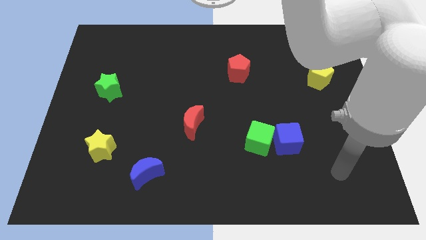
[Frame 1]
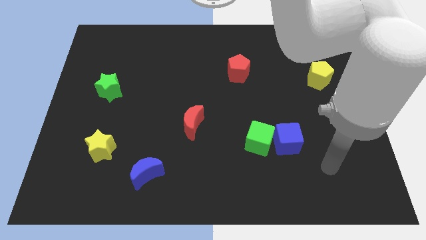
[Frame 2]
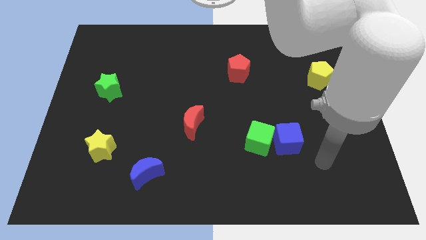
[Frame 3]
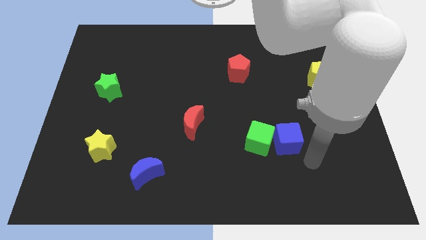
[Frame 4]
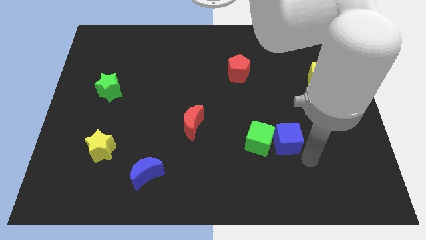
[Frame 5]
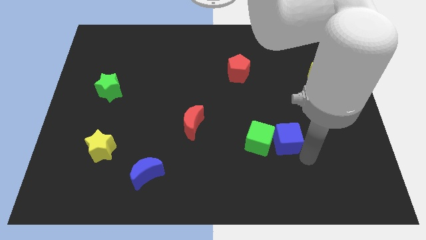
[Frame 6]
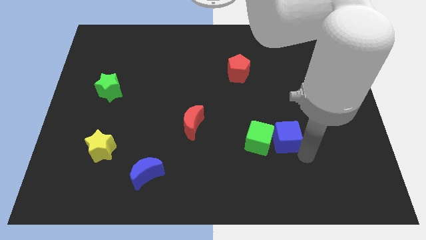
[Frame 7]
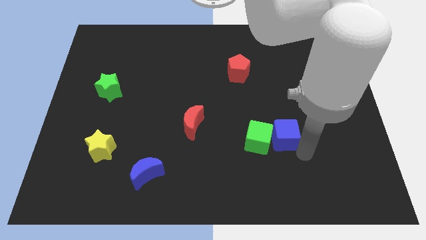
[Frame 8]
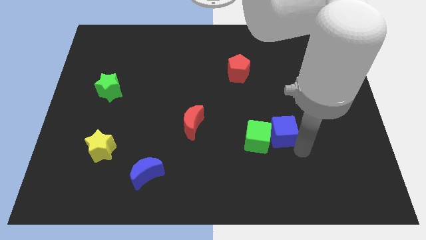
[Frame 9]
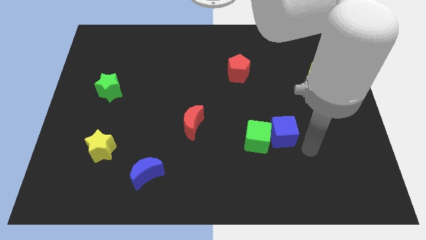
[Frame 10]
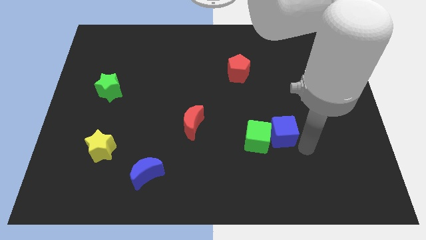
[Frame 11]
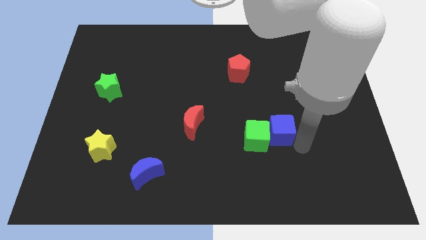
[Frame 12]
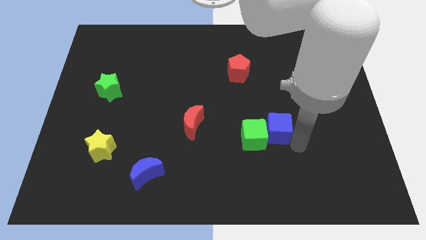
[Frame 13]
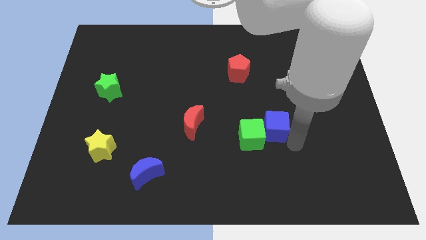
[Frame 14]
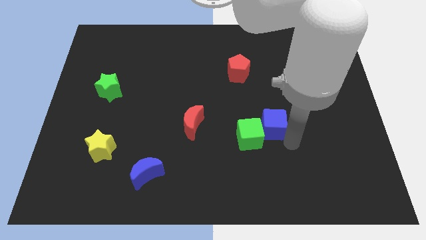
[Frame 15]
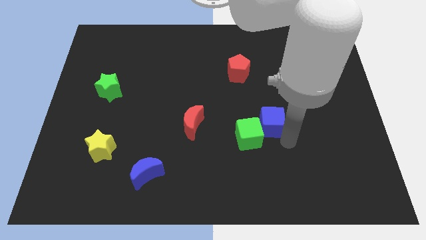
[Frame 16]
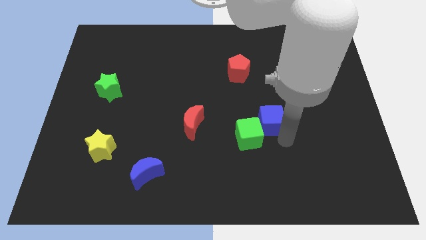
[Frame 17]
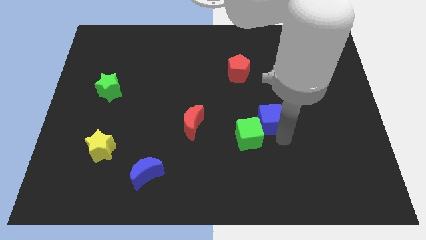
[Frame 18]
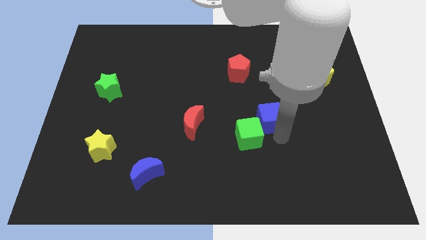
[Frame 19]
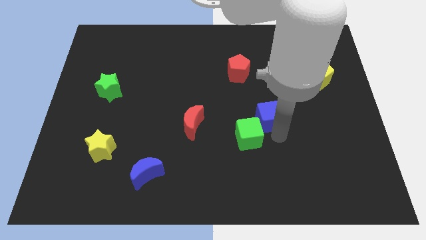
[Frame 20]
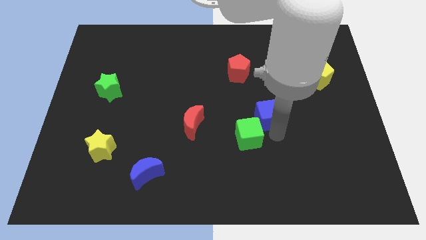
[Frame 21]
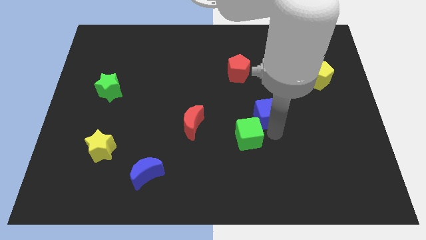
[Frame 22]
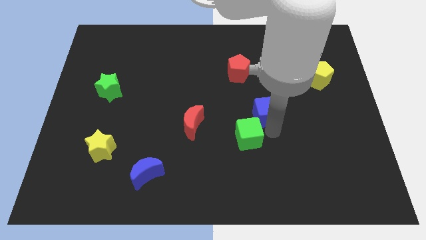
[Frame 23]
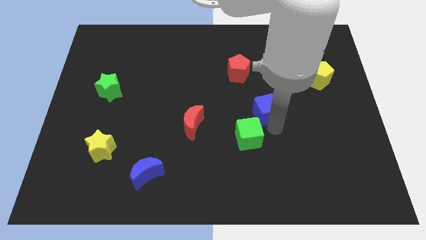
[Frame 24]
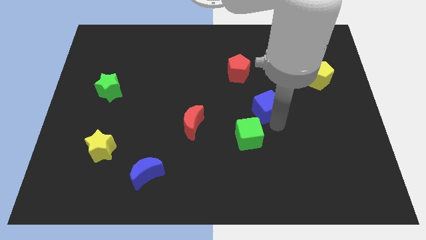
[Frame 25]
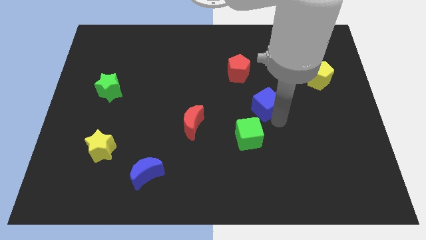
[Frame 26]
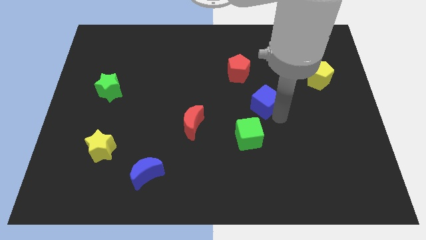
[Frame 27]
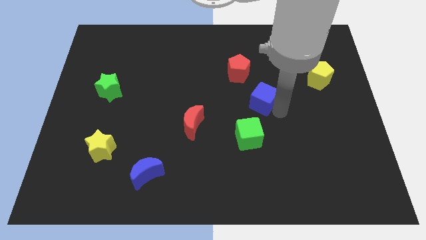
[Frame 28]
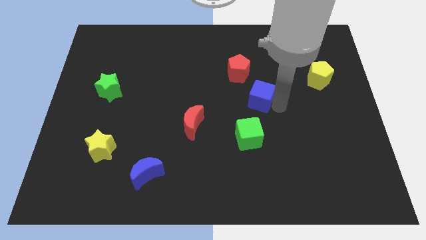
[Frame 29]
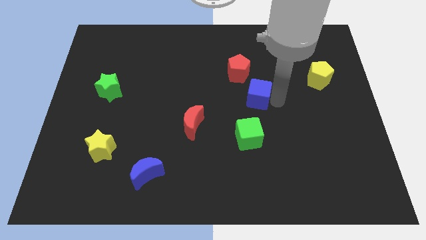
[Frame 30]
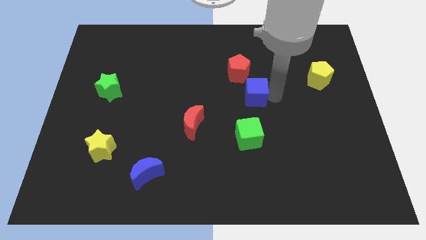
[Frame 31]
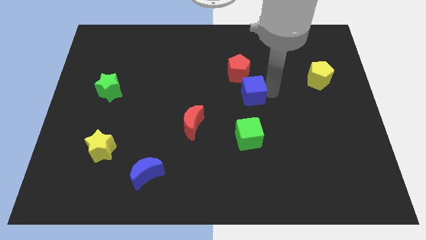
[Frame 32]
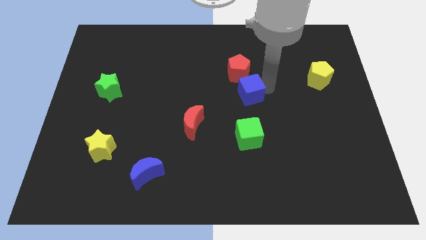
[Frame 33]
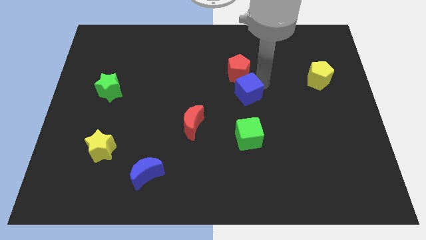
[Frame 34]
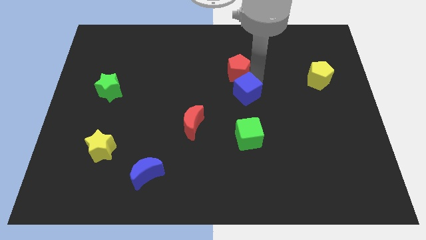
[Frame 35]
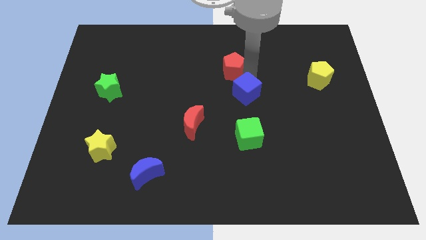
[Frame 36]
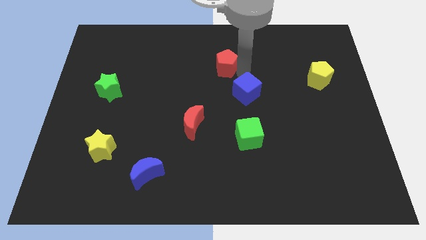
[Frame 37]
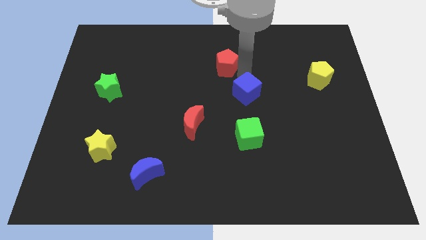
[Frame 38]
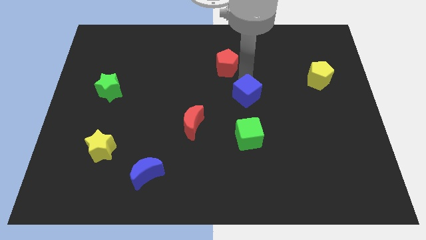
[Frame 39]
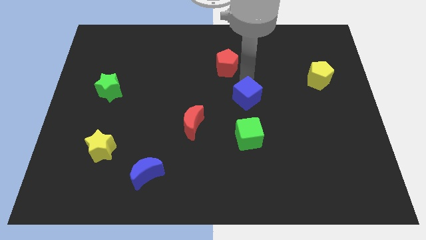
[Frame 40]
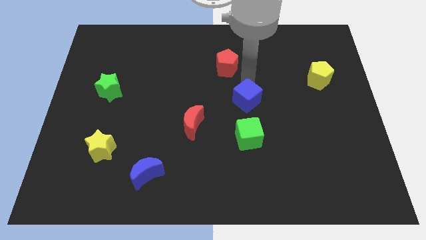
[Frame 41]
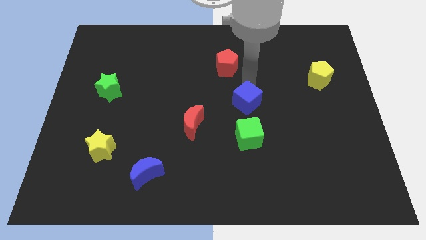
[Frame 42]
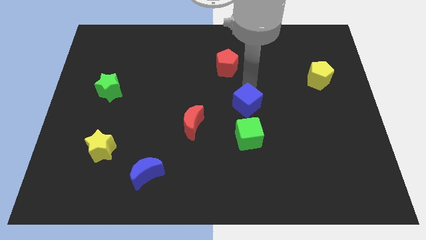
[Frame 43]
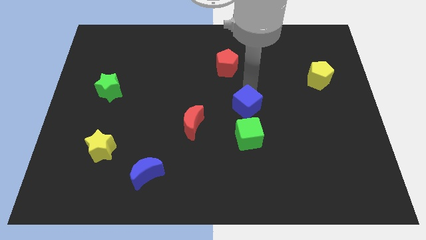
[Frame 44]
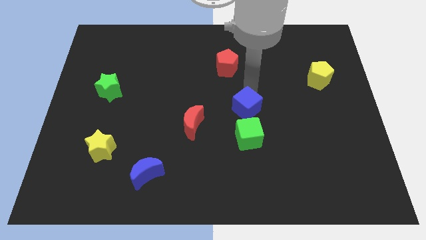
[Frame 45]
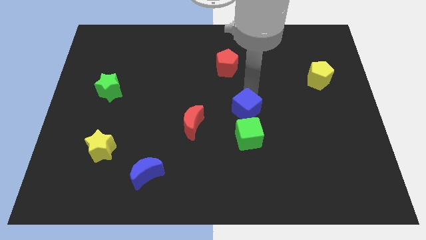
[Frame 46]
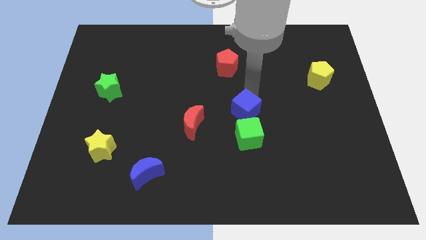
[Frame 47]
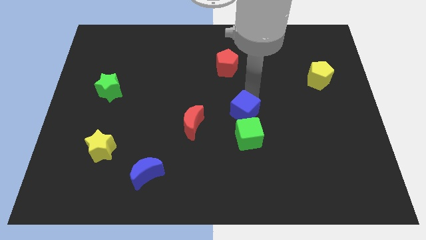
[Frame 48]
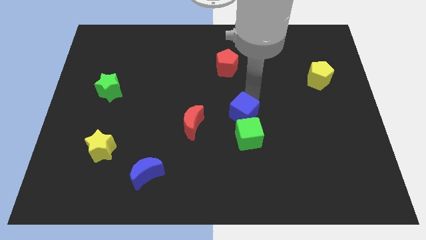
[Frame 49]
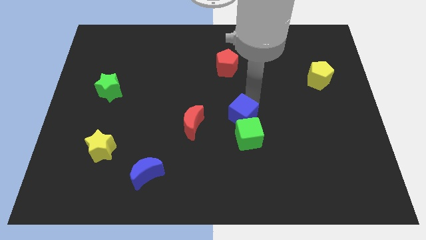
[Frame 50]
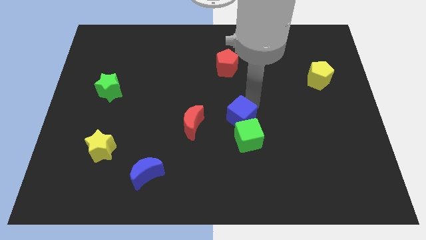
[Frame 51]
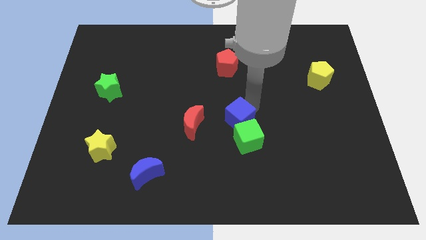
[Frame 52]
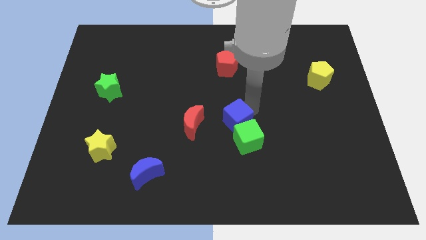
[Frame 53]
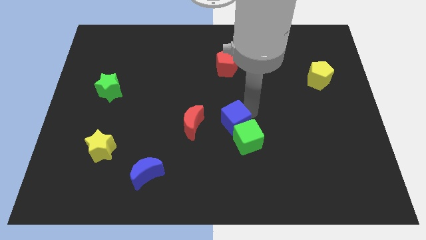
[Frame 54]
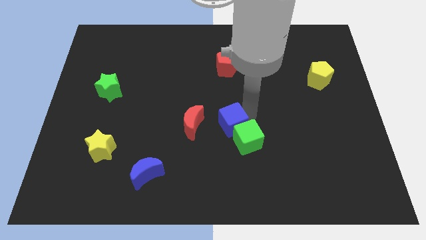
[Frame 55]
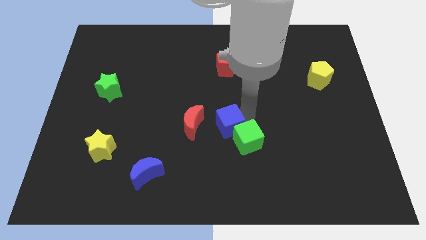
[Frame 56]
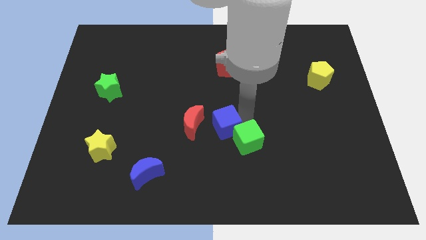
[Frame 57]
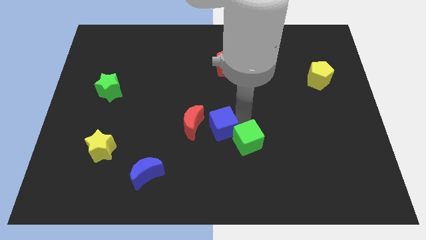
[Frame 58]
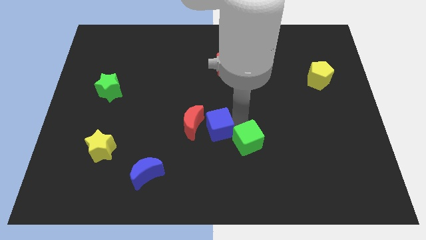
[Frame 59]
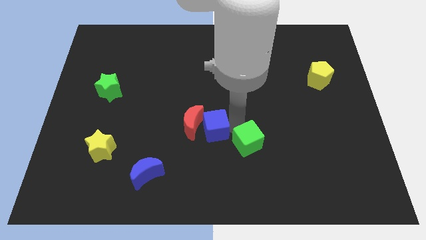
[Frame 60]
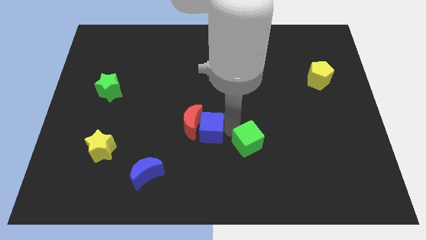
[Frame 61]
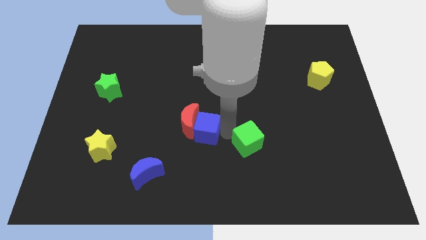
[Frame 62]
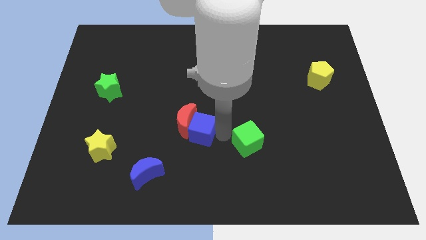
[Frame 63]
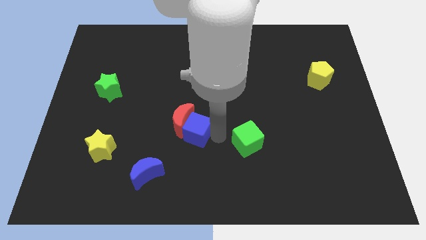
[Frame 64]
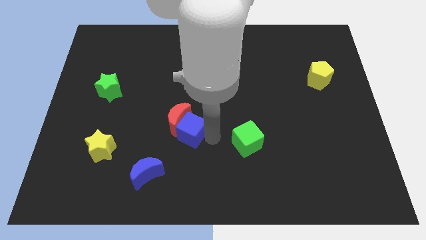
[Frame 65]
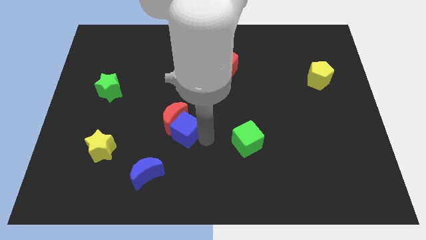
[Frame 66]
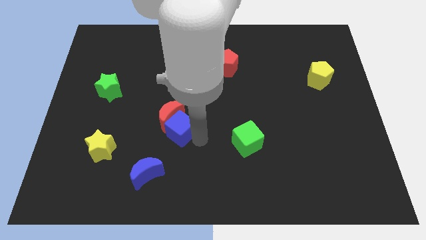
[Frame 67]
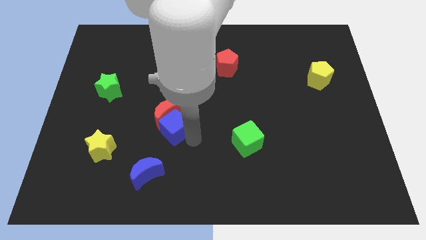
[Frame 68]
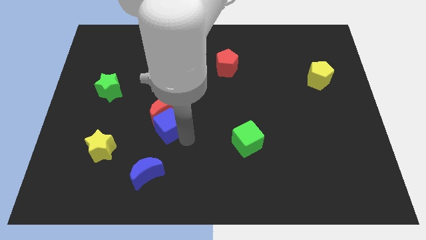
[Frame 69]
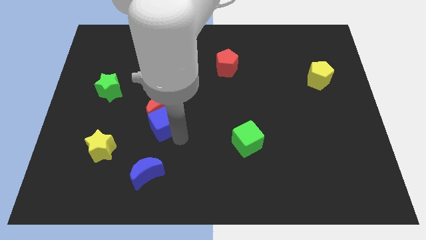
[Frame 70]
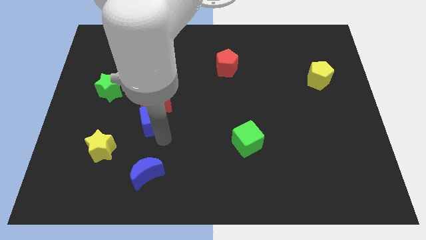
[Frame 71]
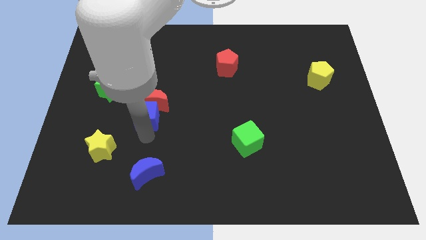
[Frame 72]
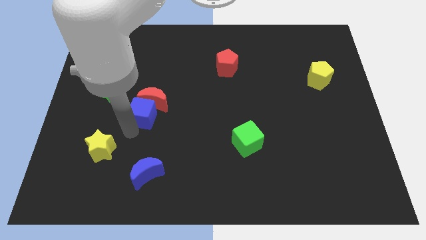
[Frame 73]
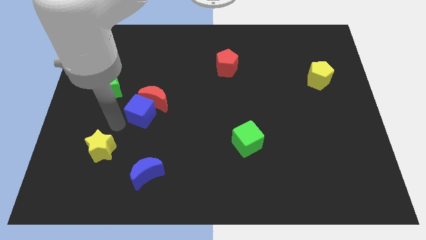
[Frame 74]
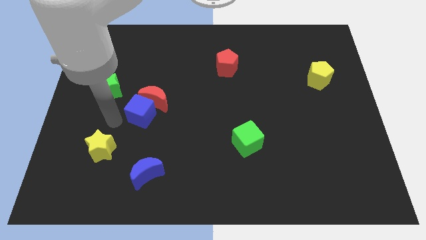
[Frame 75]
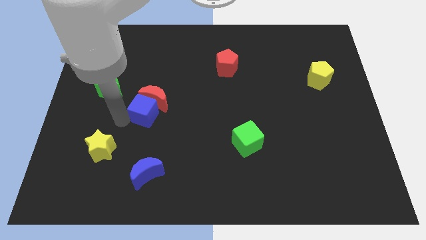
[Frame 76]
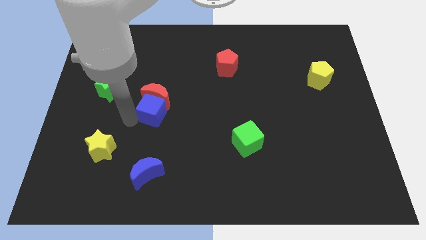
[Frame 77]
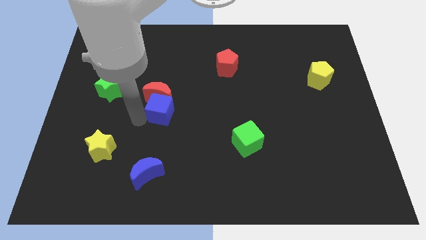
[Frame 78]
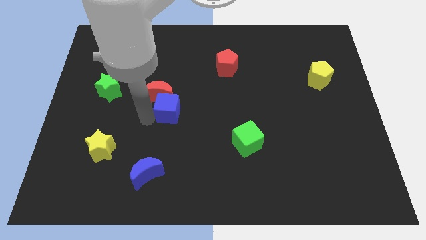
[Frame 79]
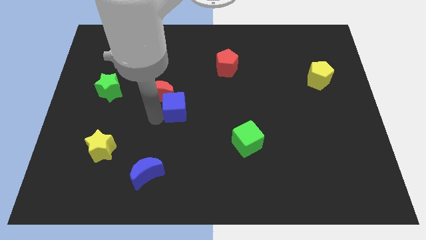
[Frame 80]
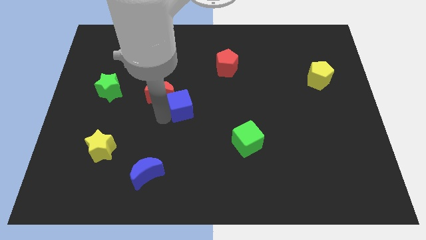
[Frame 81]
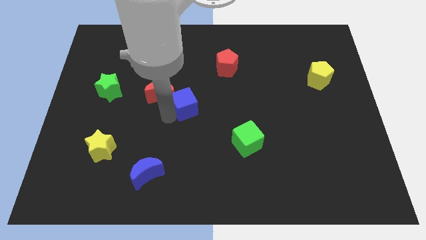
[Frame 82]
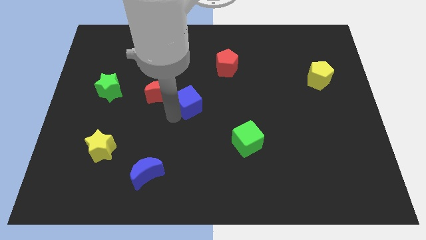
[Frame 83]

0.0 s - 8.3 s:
slide the blue cube diagonally upwards and to the left
